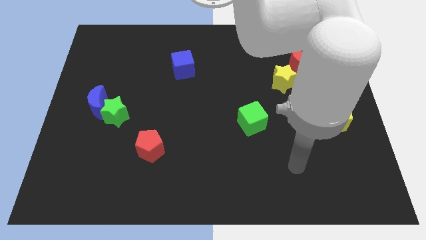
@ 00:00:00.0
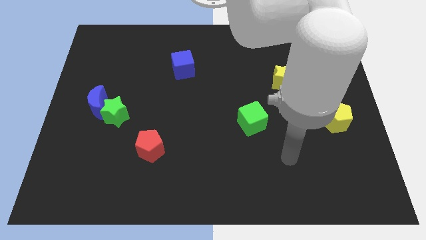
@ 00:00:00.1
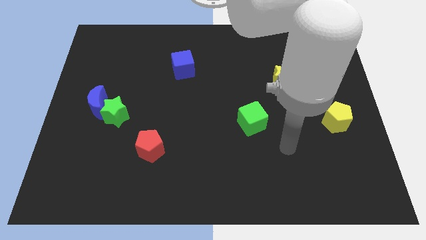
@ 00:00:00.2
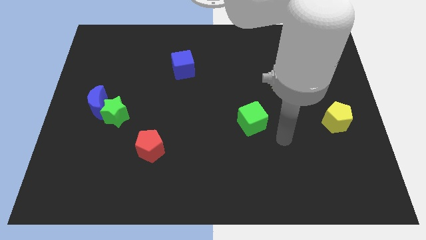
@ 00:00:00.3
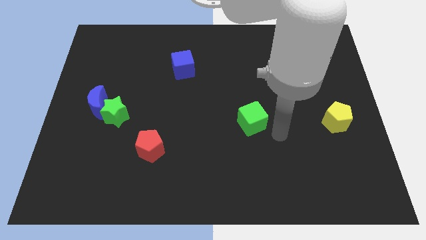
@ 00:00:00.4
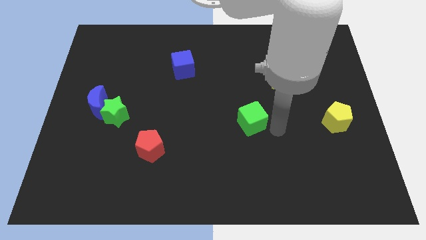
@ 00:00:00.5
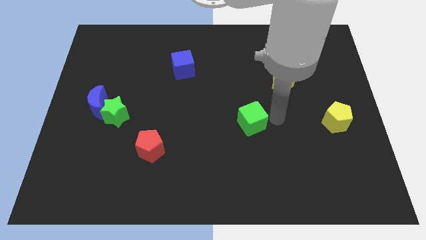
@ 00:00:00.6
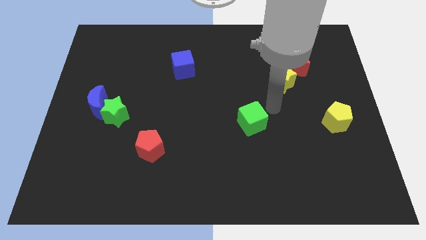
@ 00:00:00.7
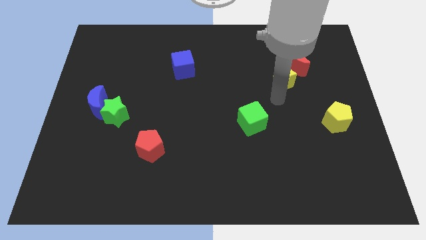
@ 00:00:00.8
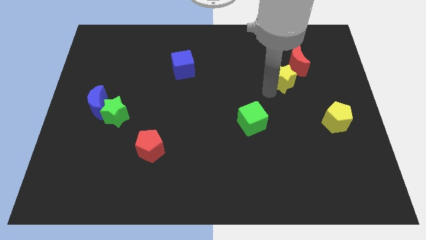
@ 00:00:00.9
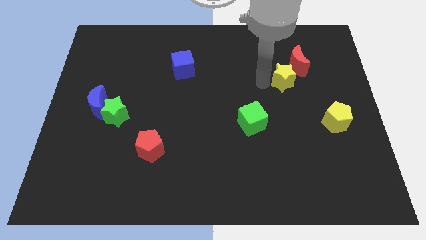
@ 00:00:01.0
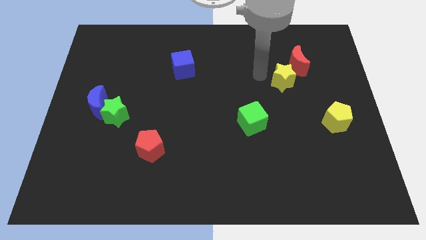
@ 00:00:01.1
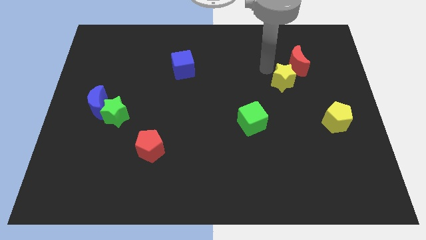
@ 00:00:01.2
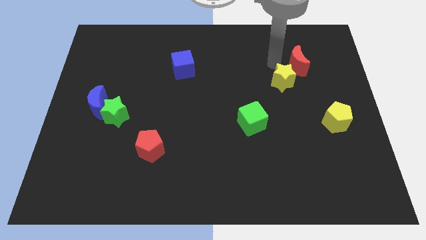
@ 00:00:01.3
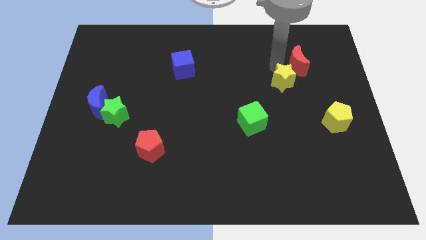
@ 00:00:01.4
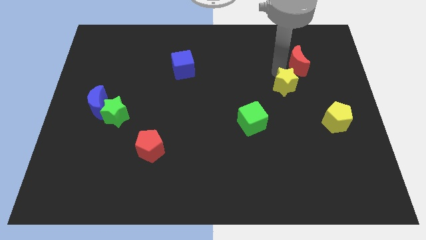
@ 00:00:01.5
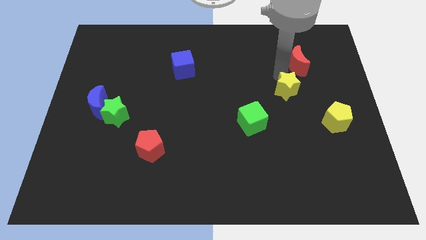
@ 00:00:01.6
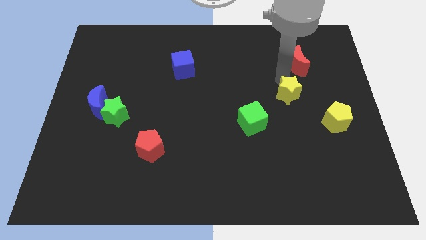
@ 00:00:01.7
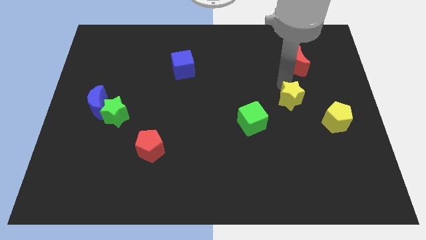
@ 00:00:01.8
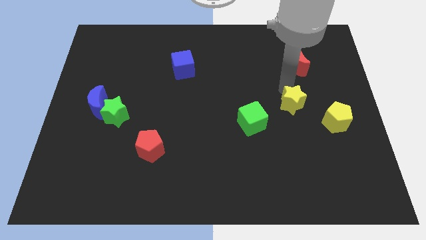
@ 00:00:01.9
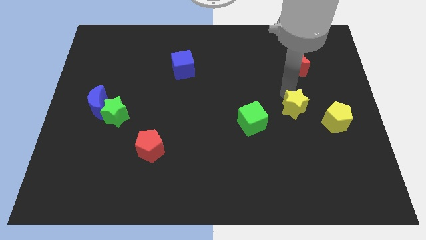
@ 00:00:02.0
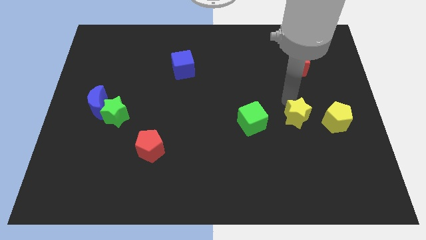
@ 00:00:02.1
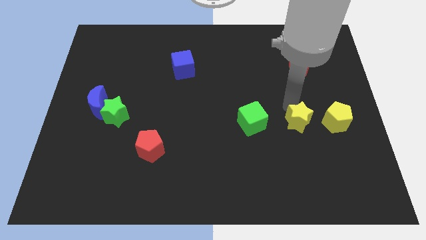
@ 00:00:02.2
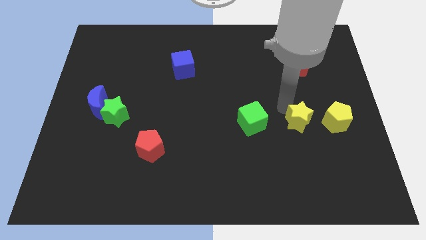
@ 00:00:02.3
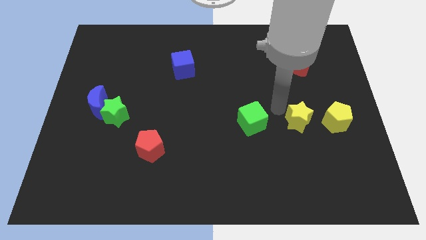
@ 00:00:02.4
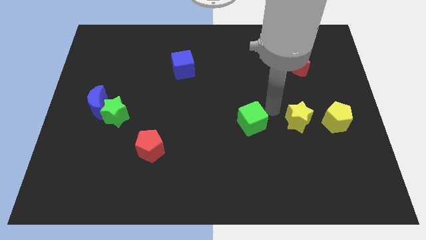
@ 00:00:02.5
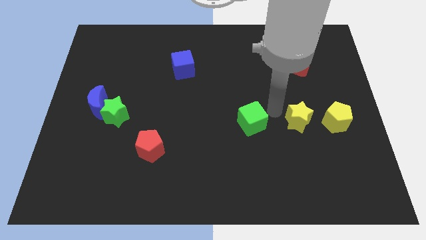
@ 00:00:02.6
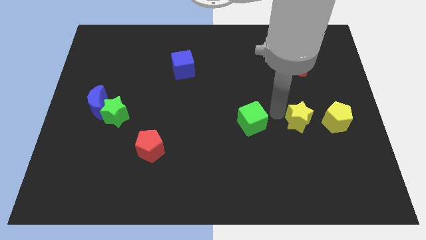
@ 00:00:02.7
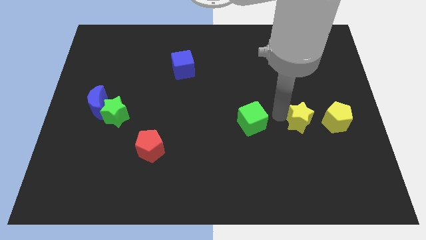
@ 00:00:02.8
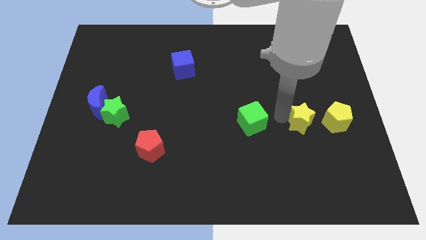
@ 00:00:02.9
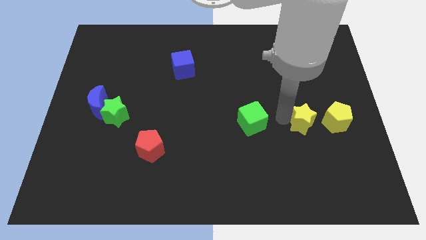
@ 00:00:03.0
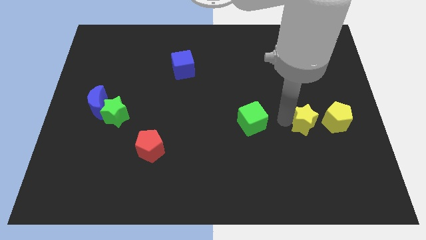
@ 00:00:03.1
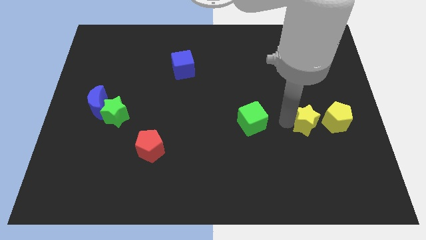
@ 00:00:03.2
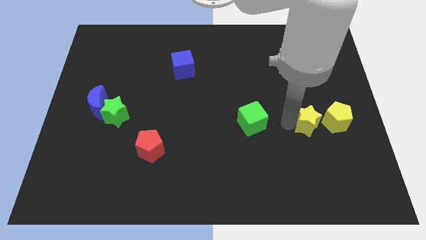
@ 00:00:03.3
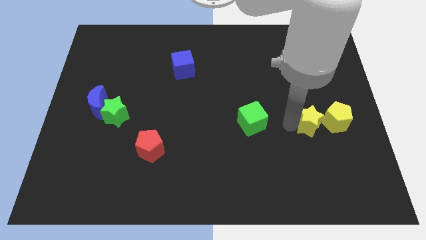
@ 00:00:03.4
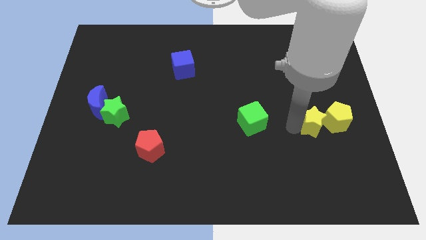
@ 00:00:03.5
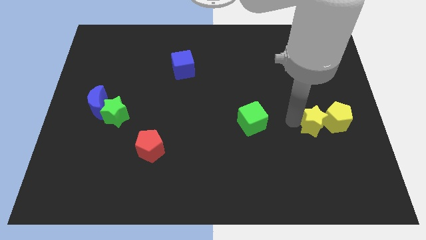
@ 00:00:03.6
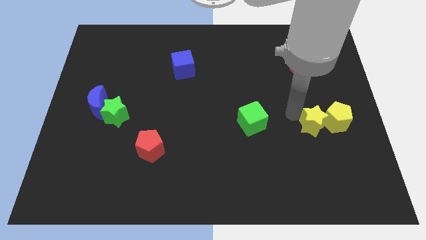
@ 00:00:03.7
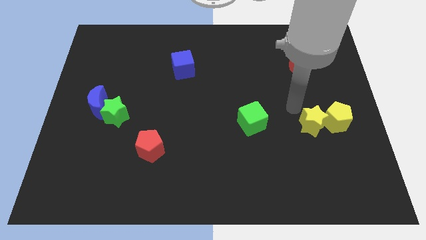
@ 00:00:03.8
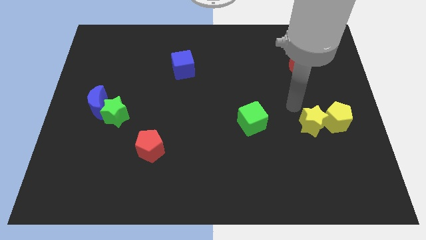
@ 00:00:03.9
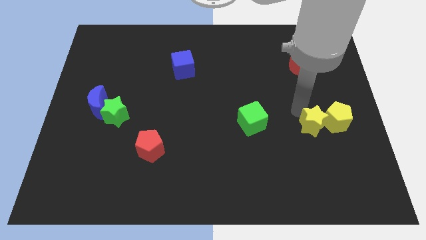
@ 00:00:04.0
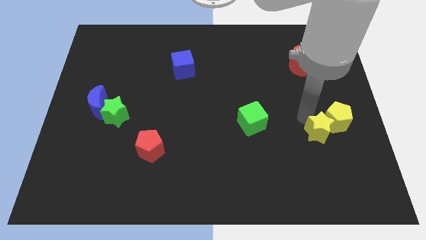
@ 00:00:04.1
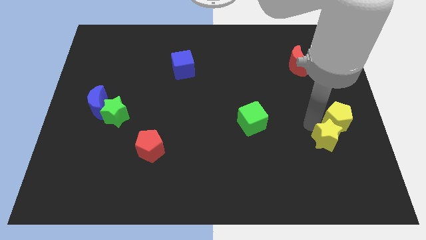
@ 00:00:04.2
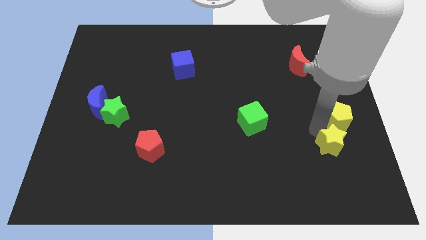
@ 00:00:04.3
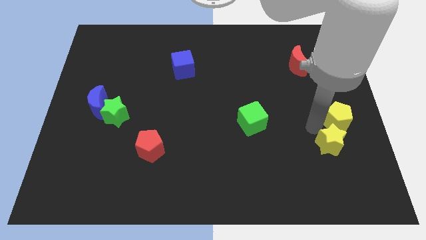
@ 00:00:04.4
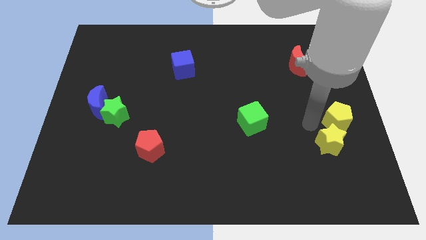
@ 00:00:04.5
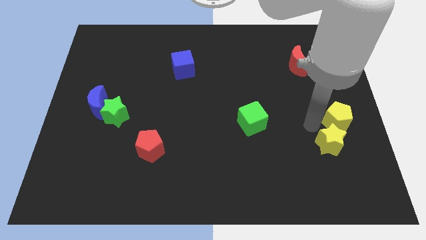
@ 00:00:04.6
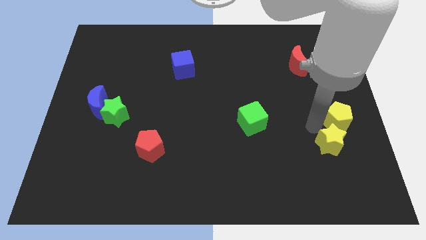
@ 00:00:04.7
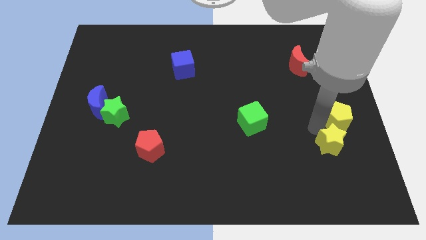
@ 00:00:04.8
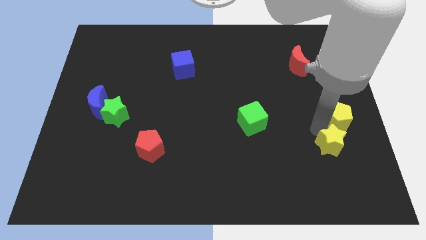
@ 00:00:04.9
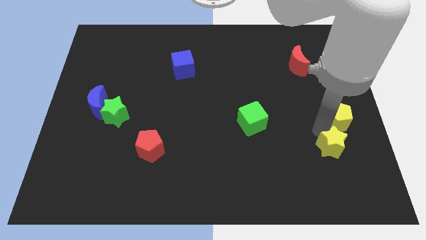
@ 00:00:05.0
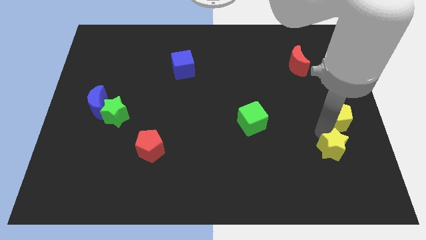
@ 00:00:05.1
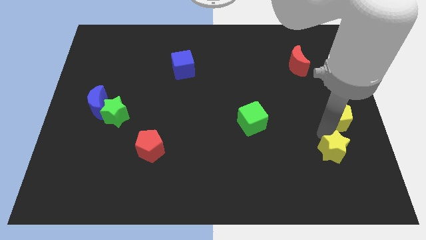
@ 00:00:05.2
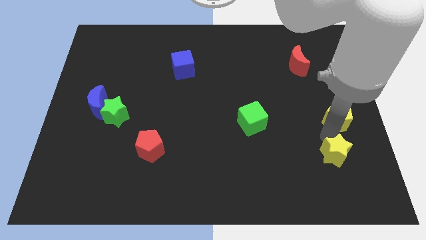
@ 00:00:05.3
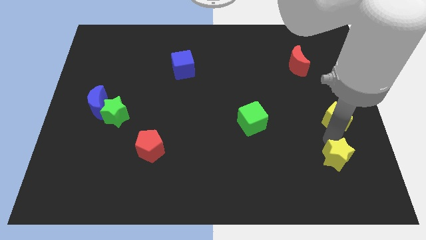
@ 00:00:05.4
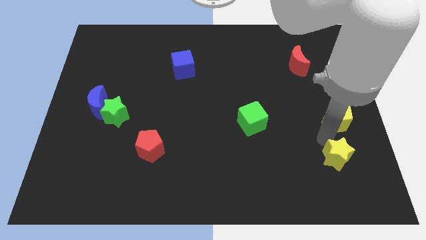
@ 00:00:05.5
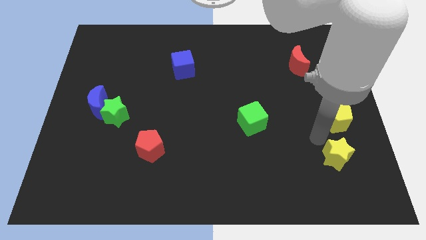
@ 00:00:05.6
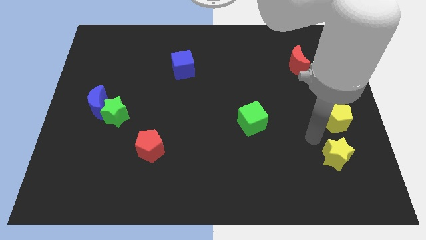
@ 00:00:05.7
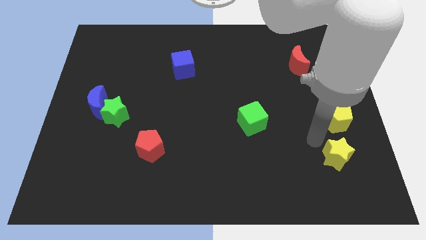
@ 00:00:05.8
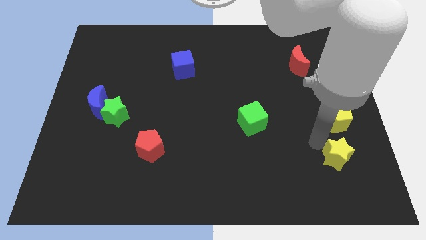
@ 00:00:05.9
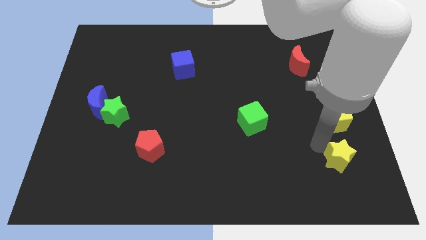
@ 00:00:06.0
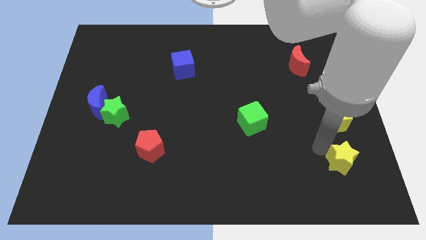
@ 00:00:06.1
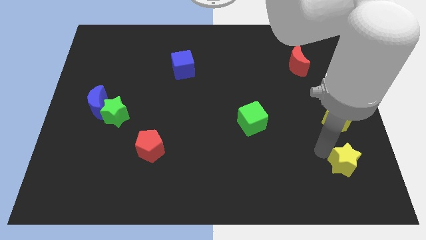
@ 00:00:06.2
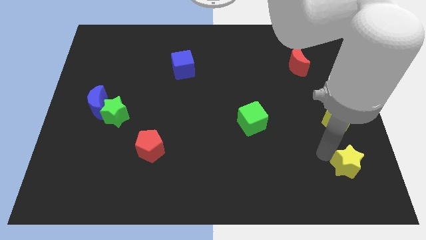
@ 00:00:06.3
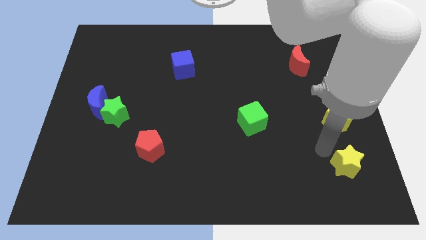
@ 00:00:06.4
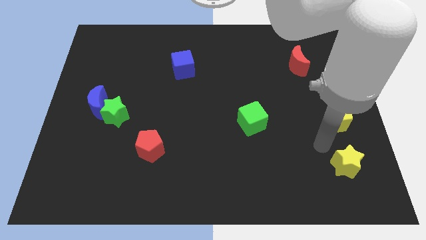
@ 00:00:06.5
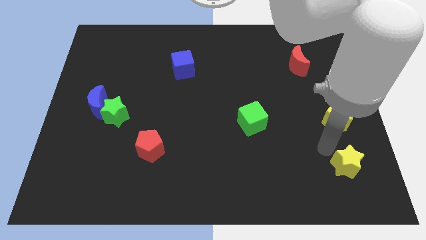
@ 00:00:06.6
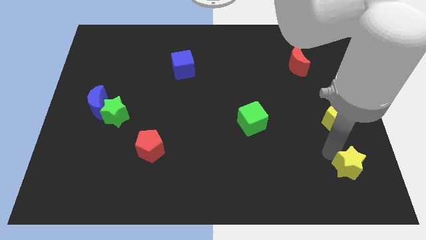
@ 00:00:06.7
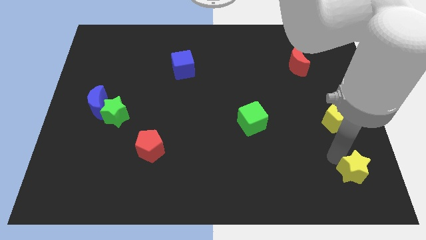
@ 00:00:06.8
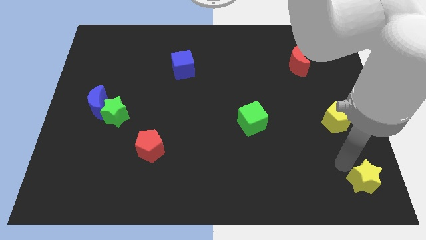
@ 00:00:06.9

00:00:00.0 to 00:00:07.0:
slide the yellow star to the lower right corner
